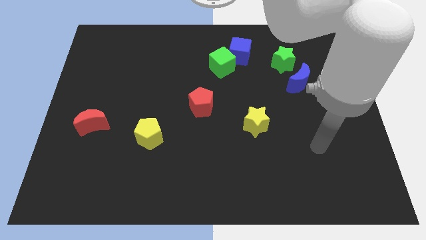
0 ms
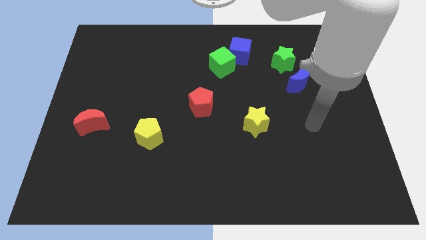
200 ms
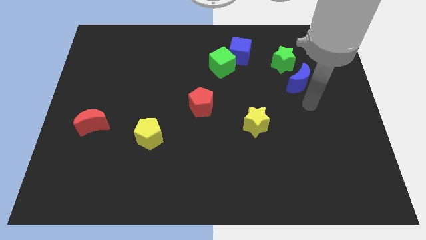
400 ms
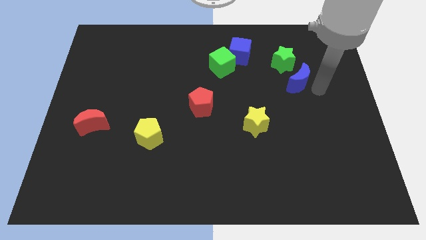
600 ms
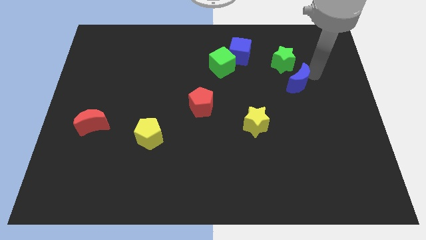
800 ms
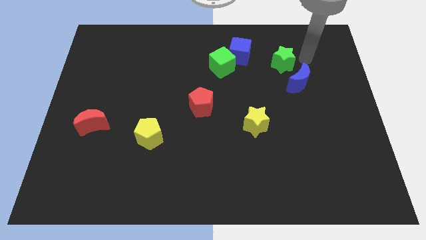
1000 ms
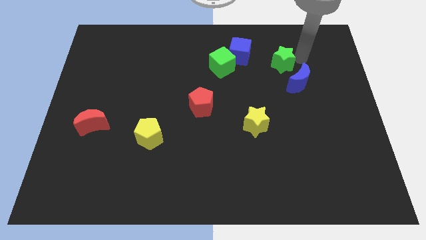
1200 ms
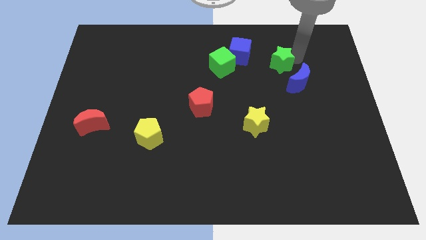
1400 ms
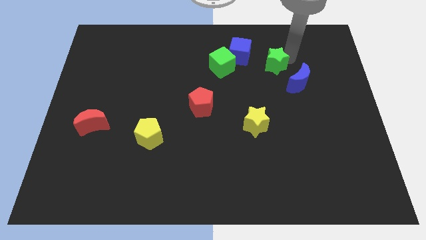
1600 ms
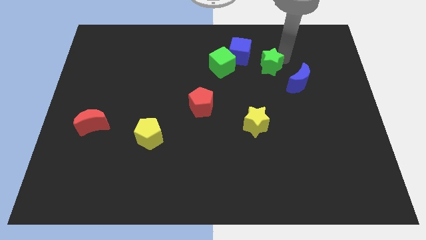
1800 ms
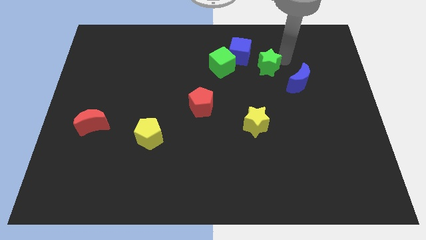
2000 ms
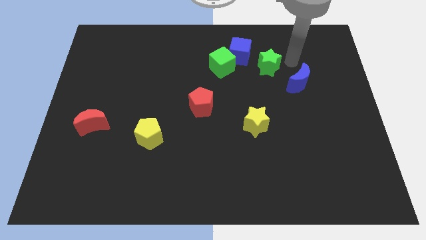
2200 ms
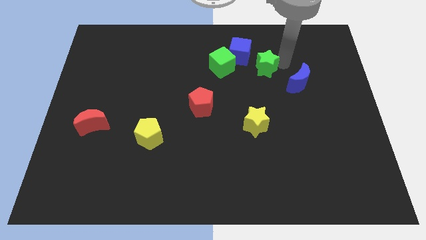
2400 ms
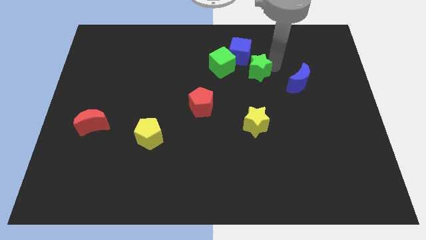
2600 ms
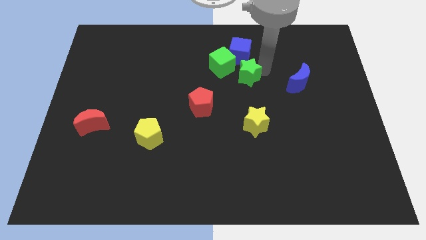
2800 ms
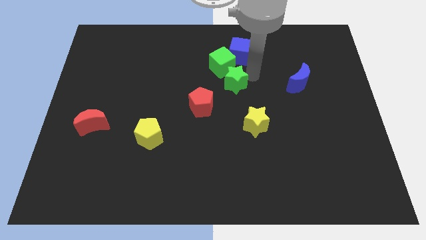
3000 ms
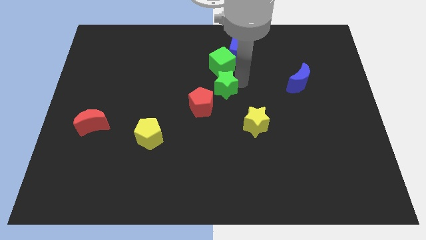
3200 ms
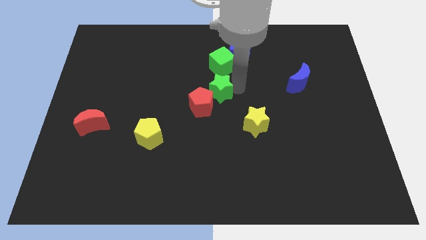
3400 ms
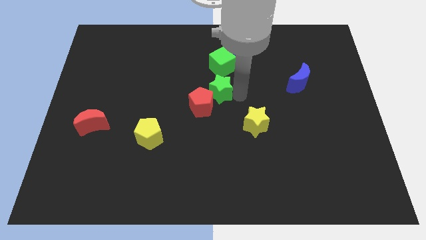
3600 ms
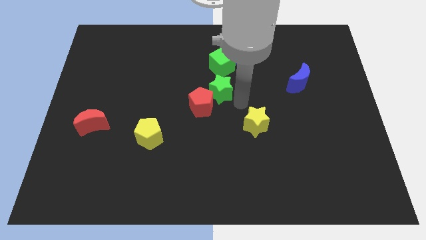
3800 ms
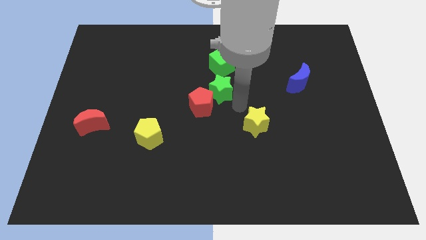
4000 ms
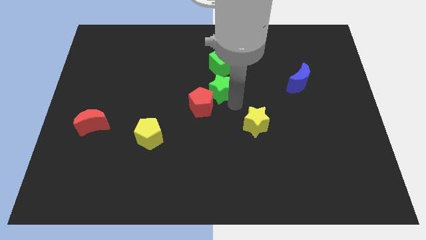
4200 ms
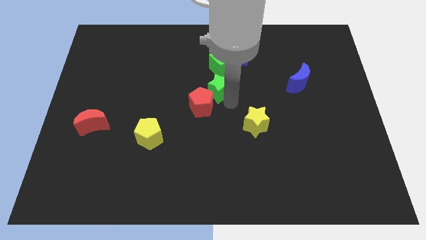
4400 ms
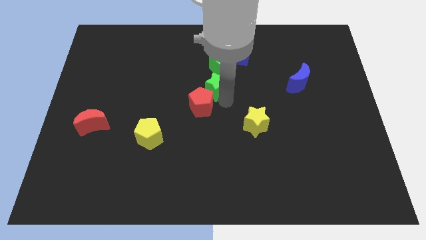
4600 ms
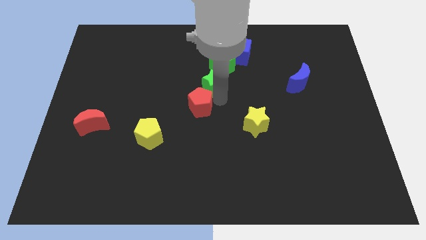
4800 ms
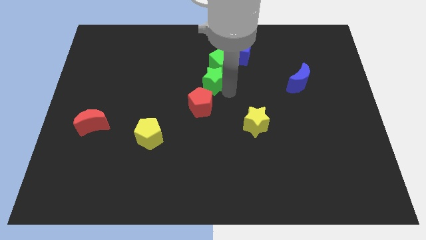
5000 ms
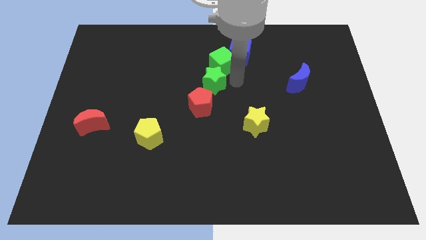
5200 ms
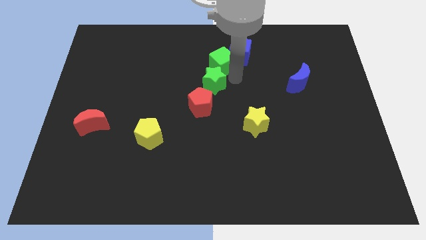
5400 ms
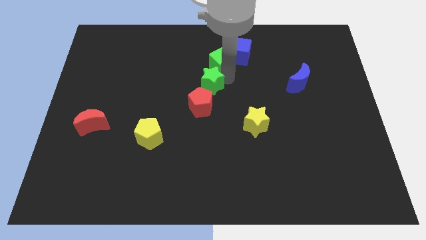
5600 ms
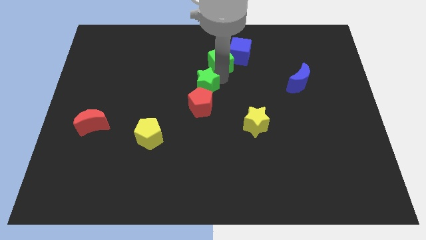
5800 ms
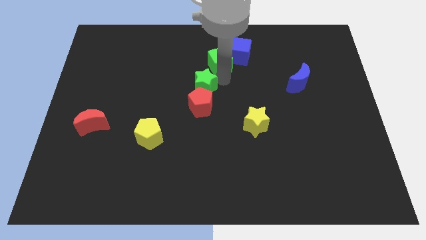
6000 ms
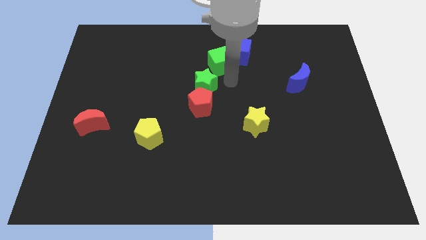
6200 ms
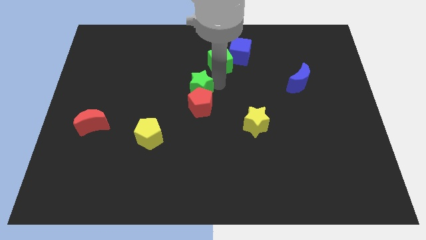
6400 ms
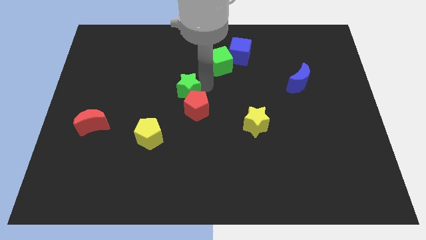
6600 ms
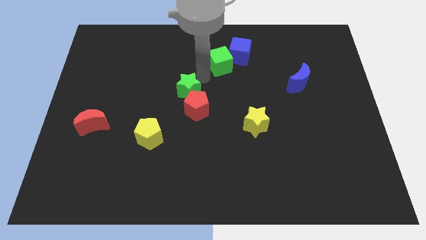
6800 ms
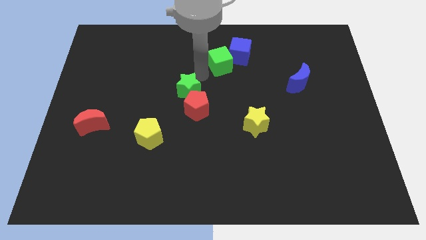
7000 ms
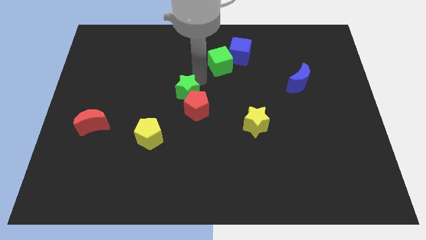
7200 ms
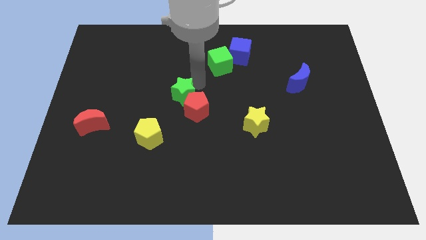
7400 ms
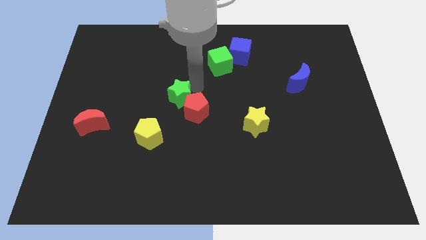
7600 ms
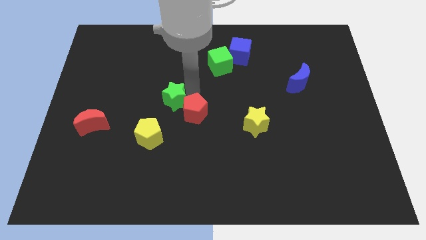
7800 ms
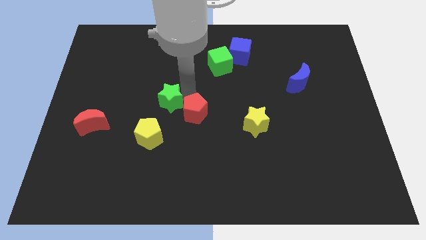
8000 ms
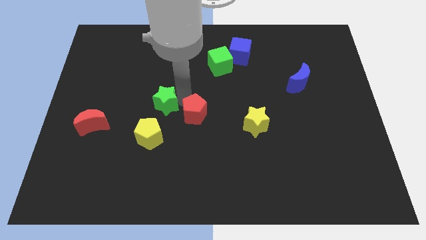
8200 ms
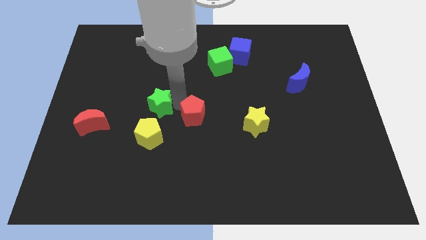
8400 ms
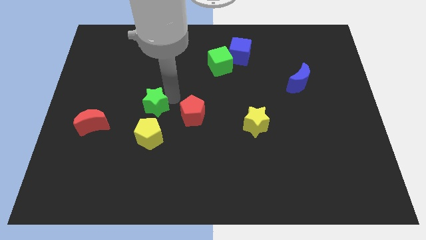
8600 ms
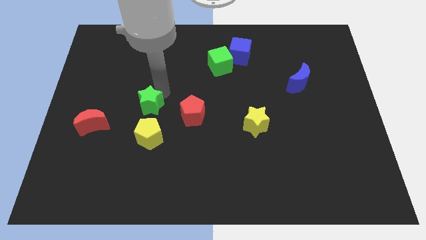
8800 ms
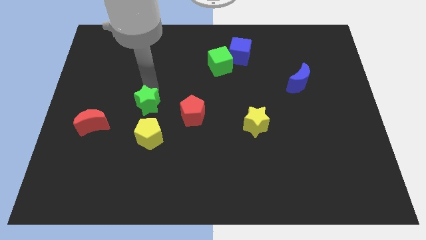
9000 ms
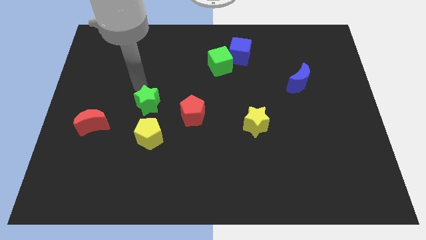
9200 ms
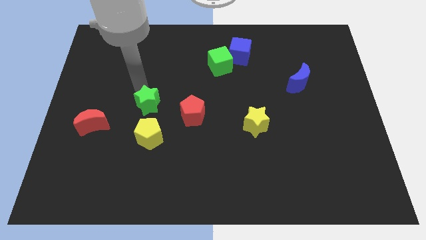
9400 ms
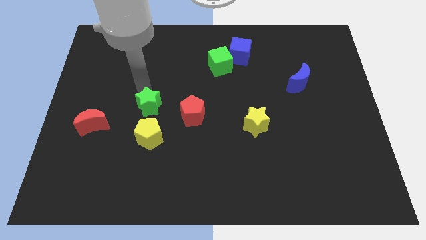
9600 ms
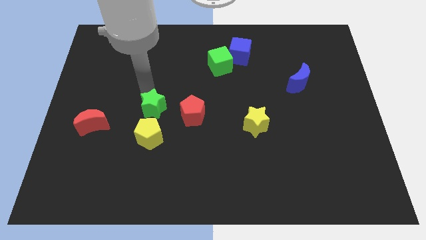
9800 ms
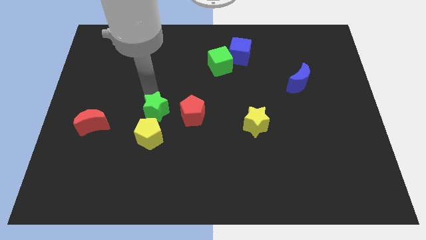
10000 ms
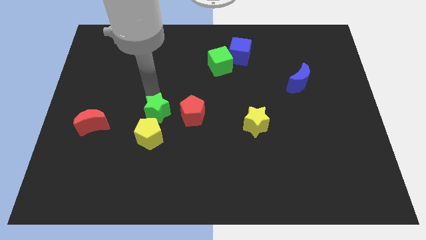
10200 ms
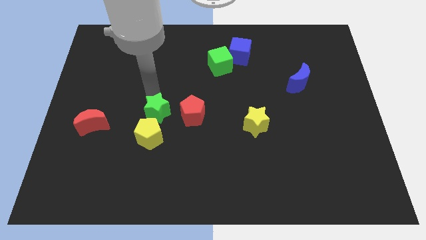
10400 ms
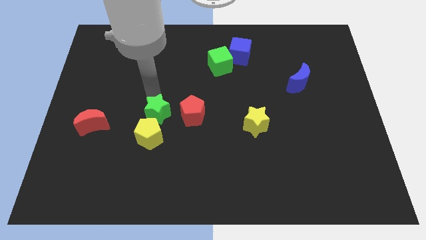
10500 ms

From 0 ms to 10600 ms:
slide the green star to the yellow pentagon

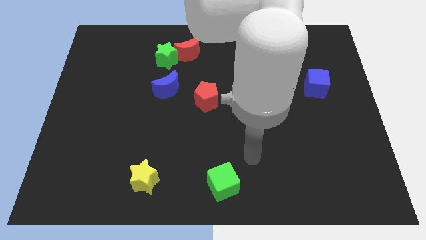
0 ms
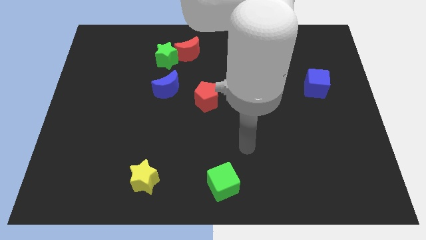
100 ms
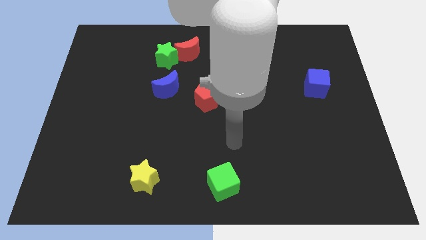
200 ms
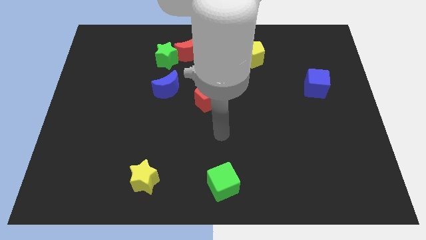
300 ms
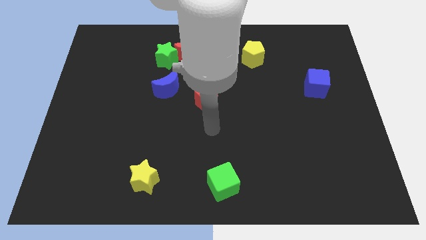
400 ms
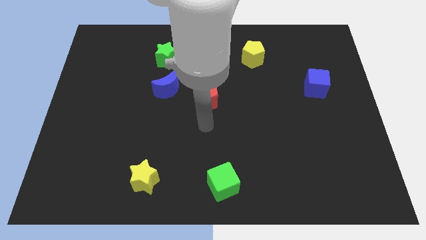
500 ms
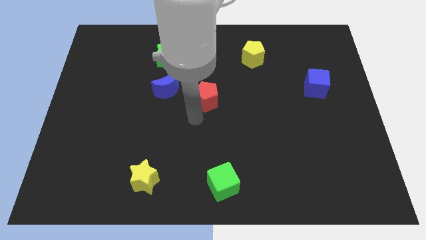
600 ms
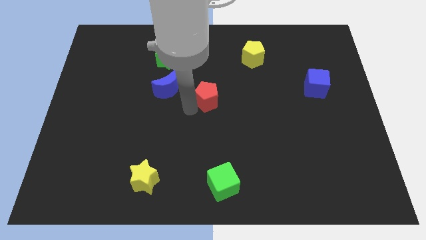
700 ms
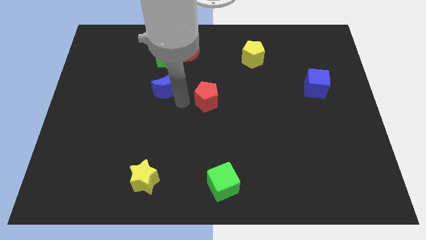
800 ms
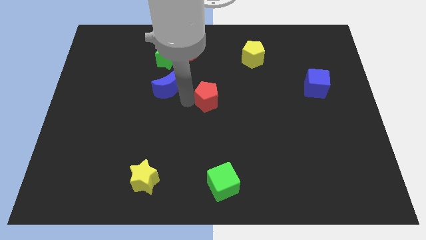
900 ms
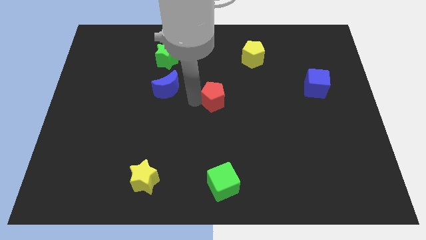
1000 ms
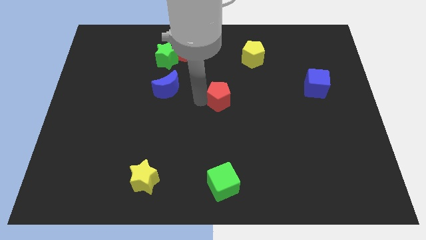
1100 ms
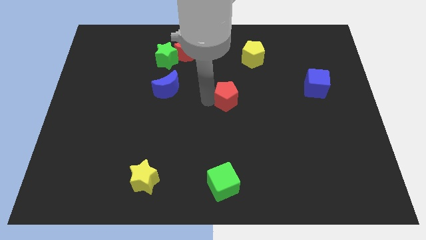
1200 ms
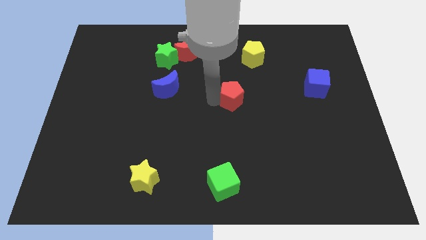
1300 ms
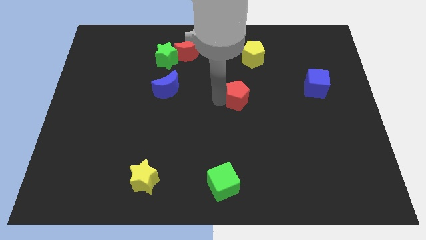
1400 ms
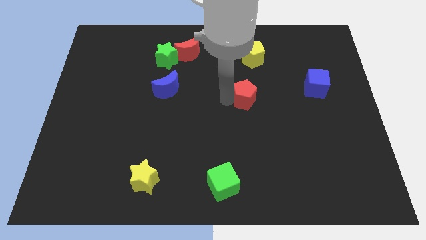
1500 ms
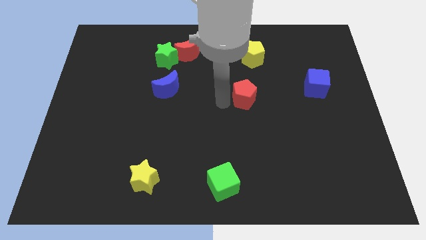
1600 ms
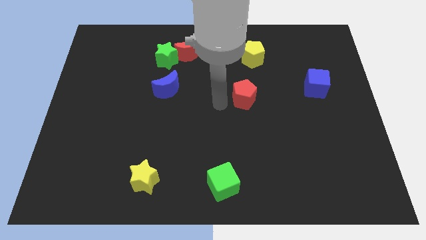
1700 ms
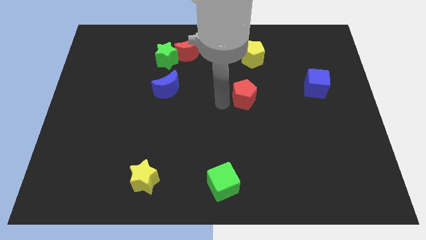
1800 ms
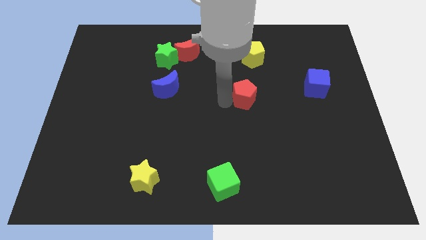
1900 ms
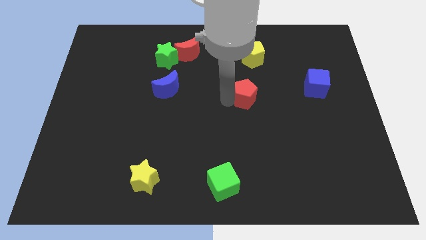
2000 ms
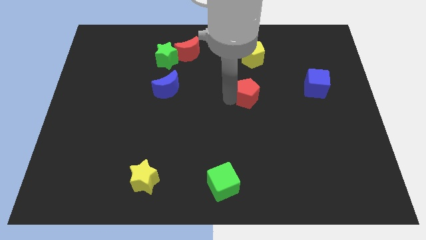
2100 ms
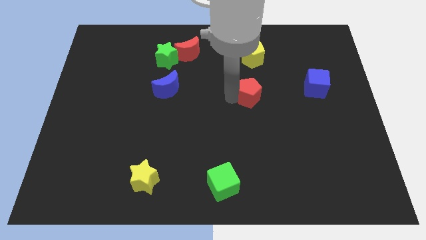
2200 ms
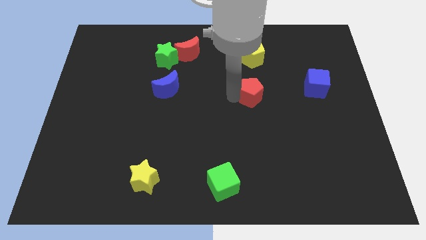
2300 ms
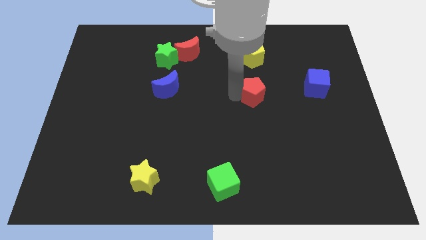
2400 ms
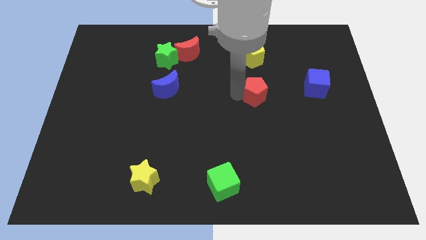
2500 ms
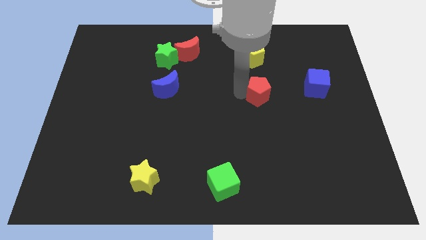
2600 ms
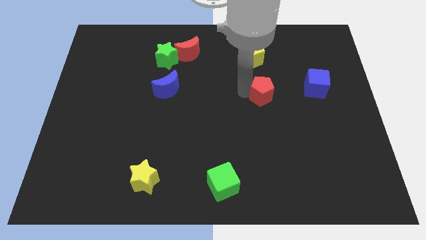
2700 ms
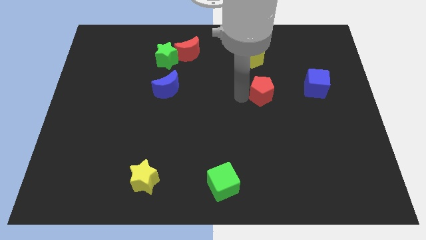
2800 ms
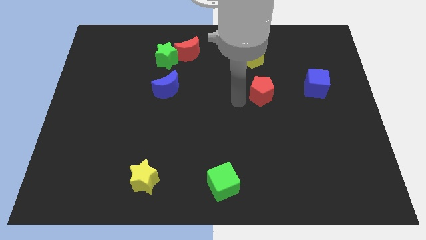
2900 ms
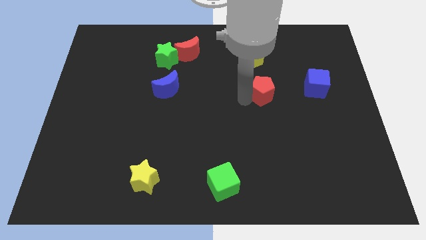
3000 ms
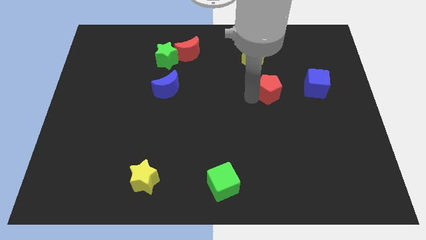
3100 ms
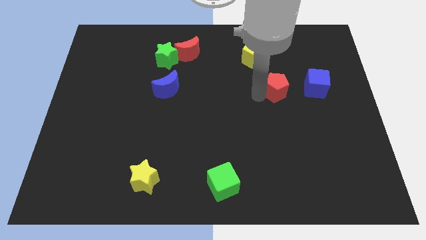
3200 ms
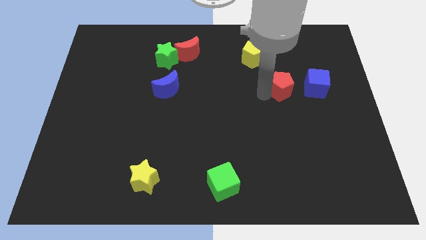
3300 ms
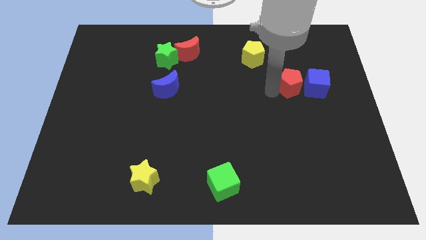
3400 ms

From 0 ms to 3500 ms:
put the red pentagon close to the blue cube
